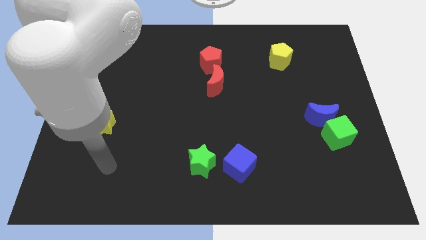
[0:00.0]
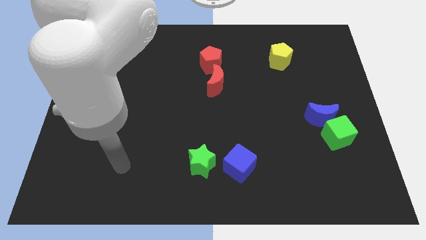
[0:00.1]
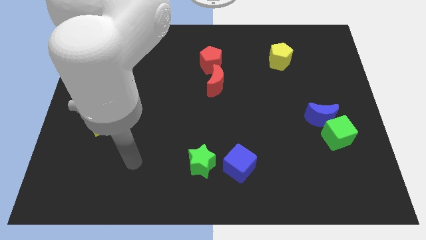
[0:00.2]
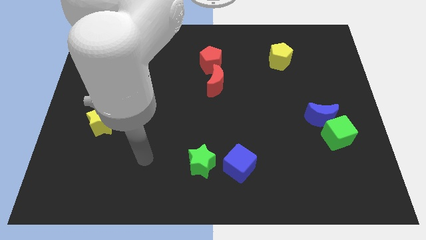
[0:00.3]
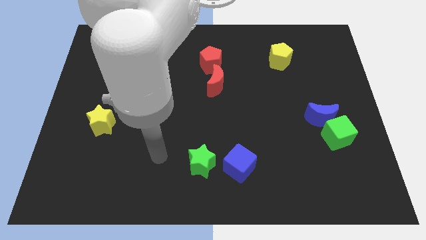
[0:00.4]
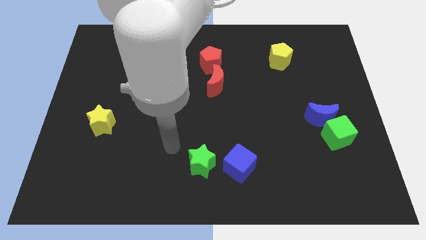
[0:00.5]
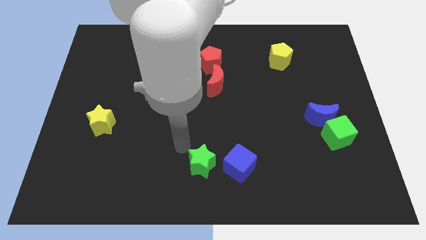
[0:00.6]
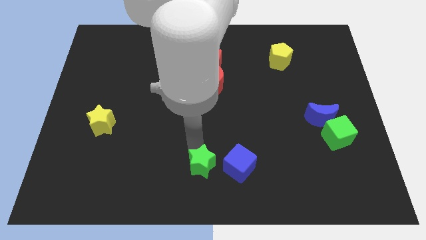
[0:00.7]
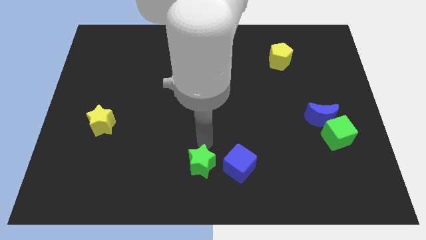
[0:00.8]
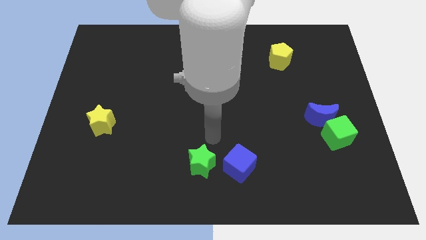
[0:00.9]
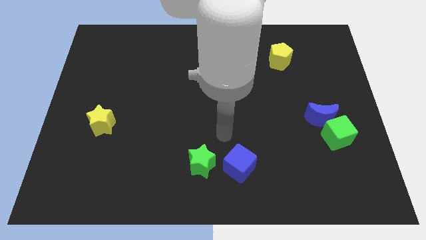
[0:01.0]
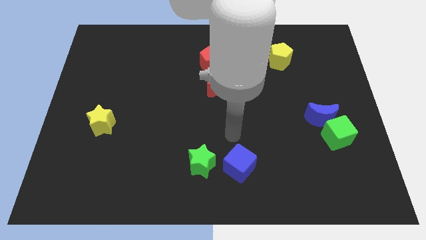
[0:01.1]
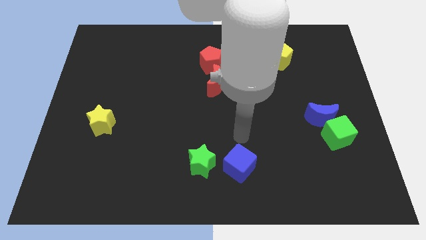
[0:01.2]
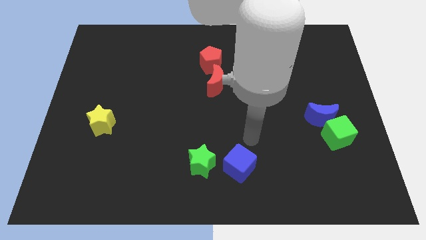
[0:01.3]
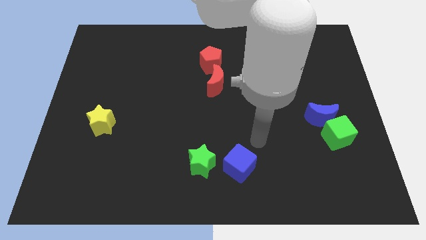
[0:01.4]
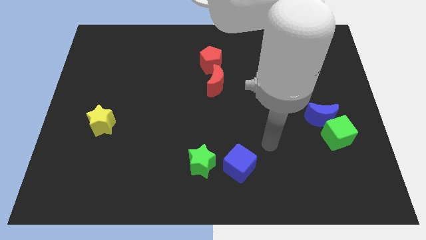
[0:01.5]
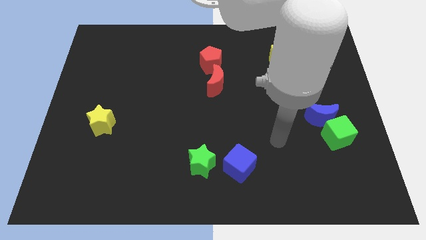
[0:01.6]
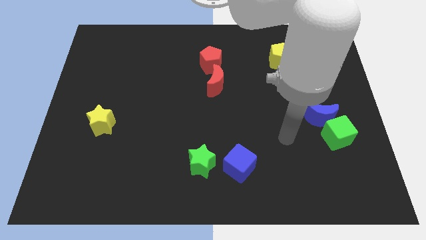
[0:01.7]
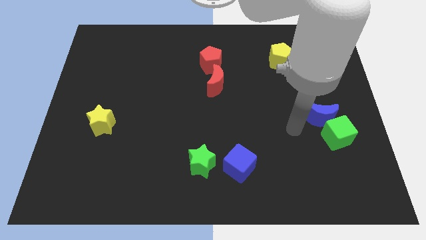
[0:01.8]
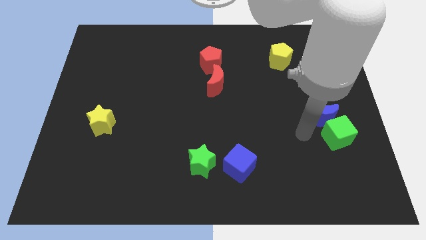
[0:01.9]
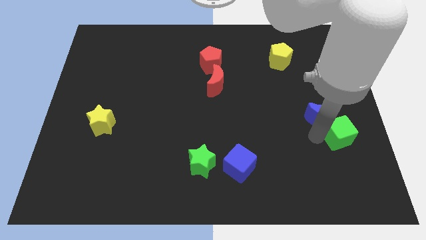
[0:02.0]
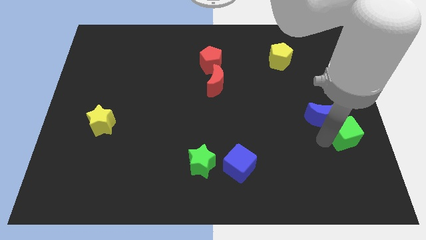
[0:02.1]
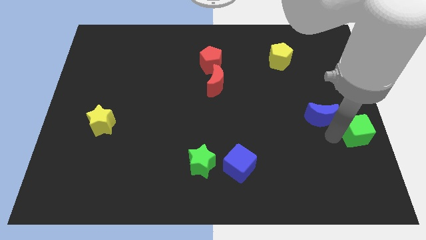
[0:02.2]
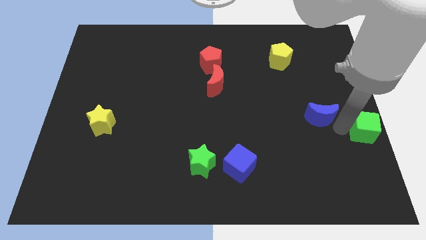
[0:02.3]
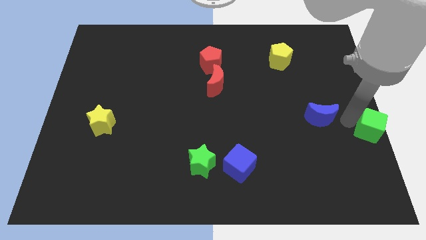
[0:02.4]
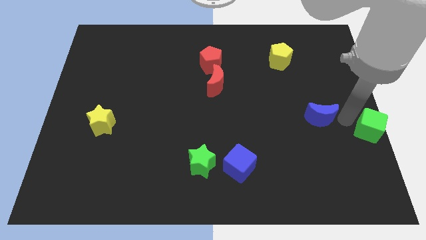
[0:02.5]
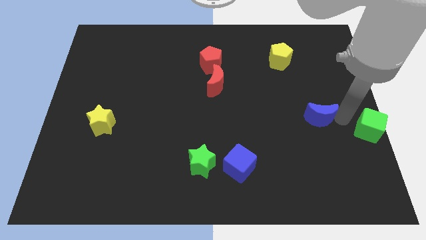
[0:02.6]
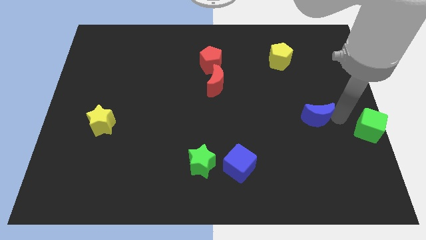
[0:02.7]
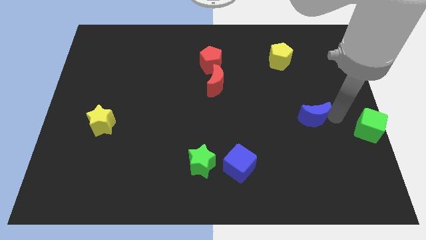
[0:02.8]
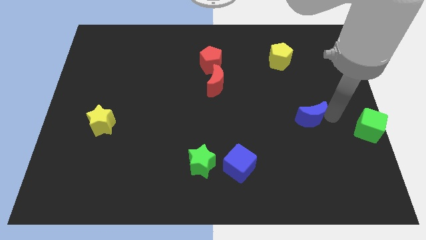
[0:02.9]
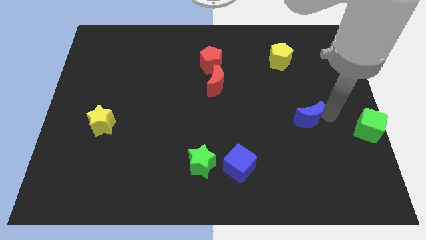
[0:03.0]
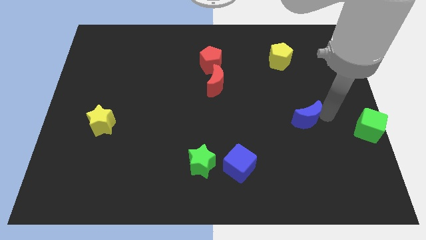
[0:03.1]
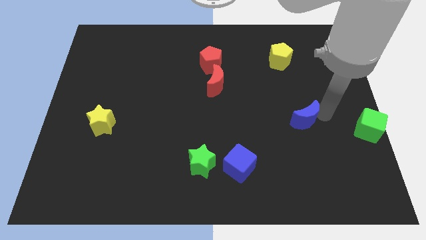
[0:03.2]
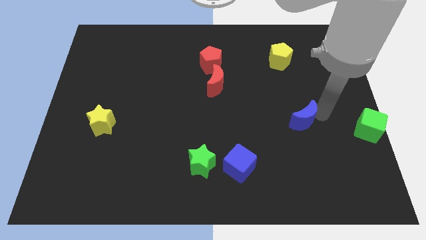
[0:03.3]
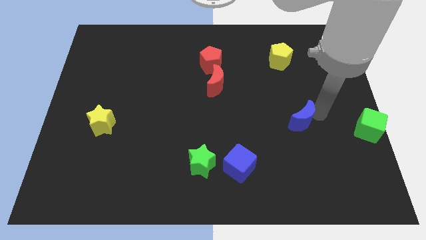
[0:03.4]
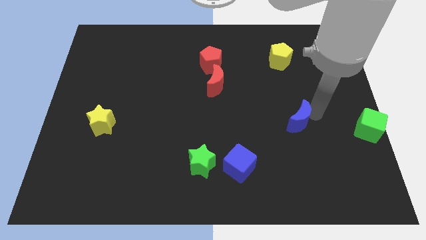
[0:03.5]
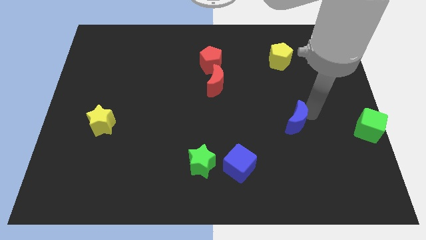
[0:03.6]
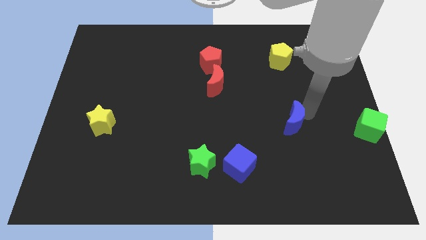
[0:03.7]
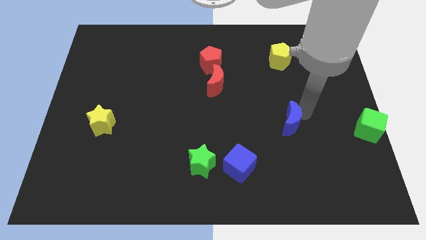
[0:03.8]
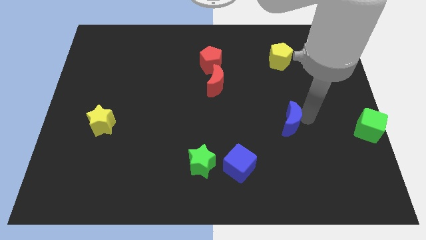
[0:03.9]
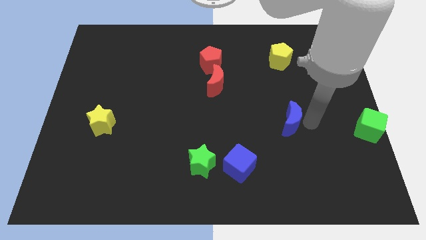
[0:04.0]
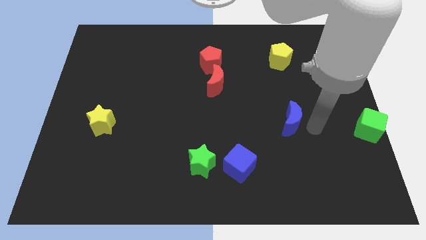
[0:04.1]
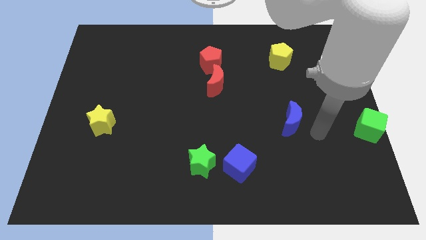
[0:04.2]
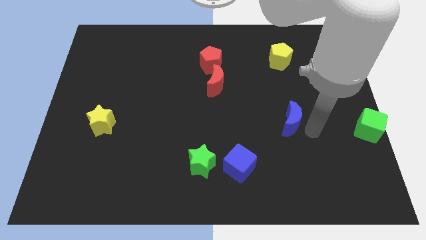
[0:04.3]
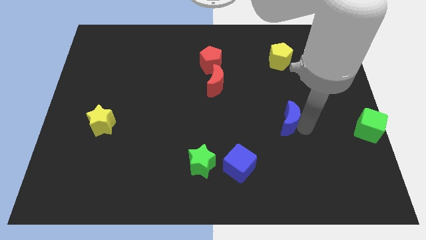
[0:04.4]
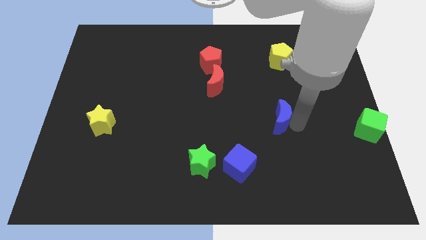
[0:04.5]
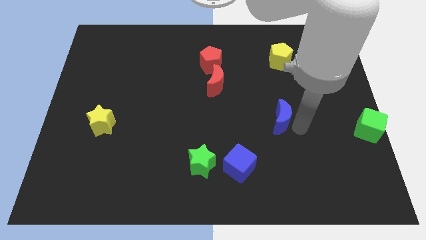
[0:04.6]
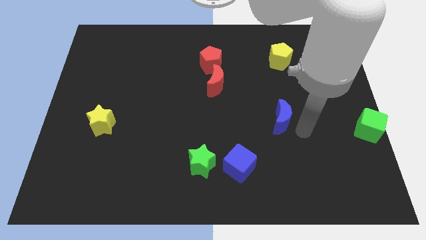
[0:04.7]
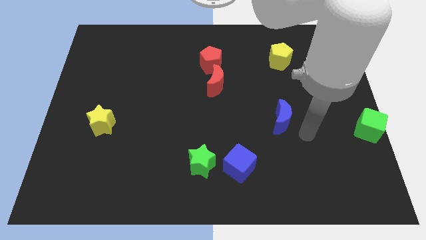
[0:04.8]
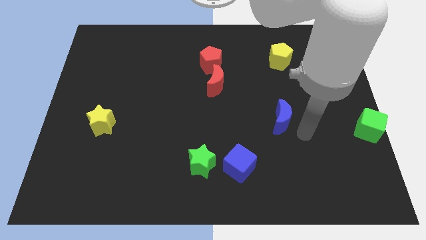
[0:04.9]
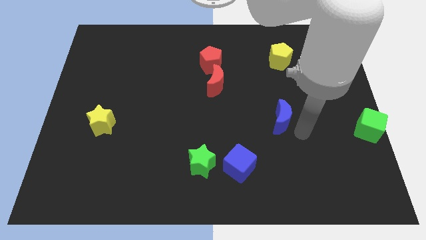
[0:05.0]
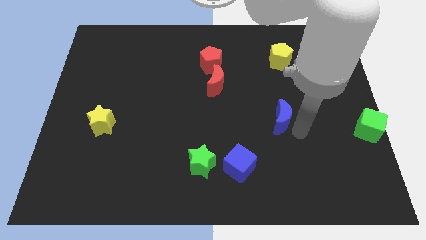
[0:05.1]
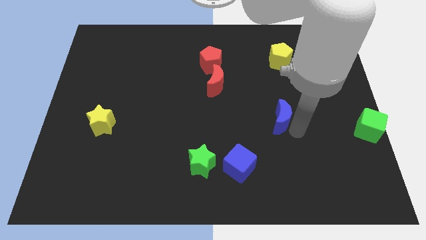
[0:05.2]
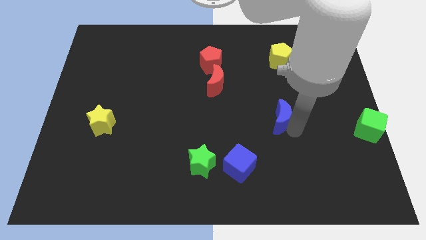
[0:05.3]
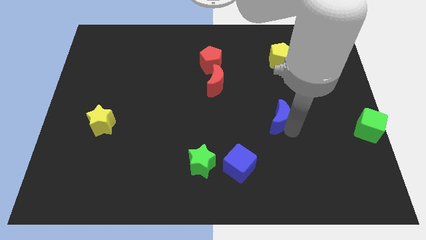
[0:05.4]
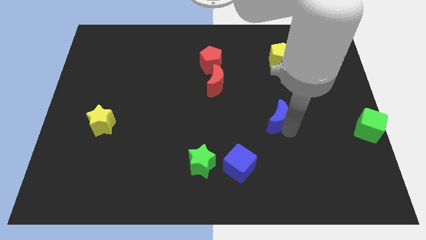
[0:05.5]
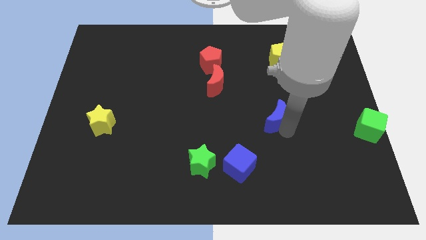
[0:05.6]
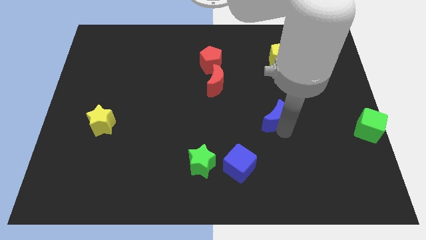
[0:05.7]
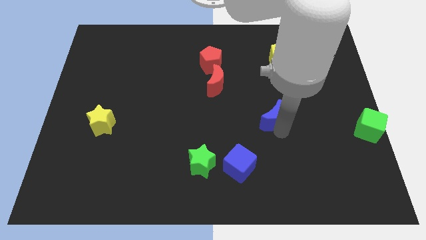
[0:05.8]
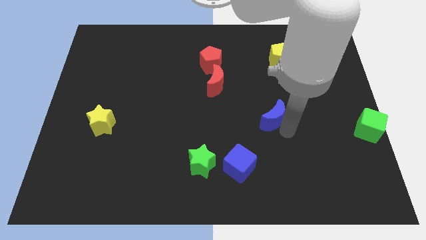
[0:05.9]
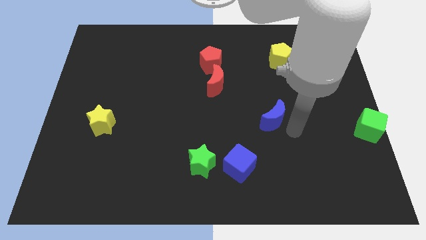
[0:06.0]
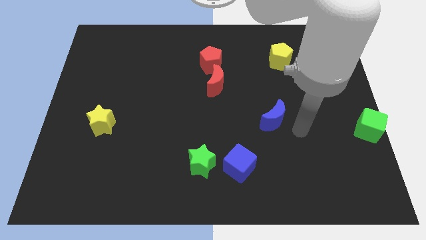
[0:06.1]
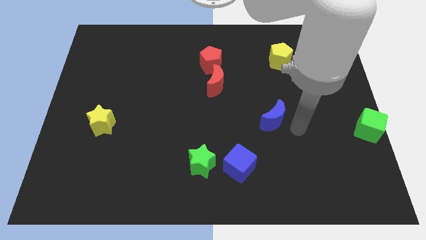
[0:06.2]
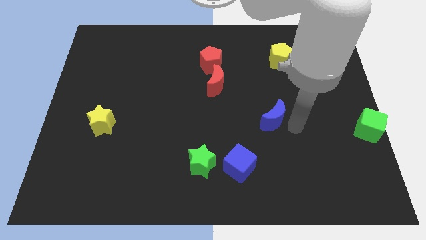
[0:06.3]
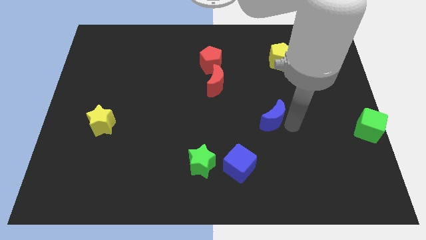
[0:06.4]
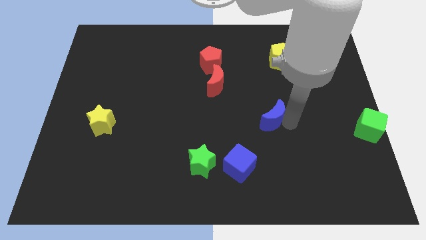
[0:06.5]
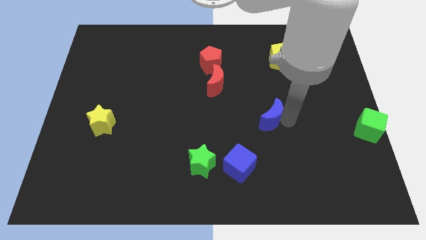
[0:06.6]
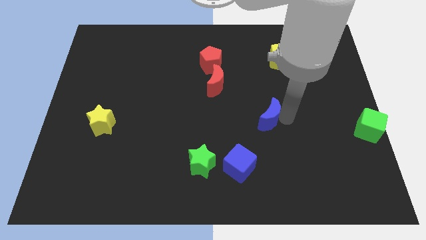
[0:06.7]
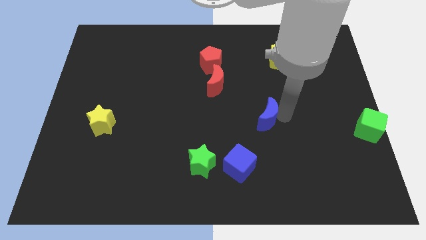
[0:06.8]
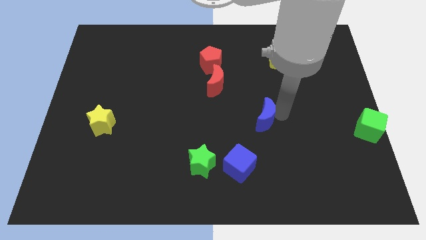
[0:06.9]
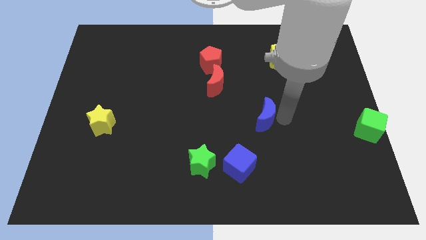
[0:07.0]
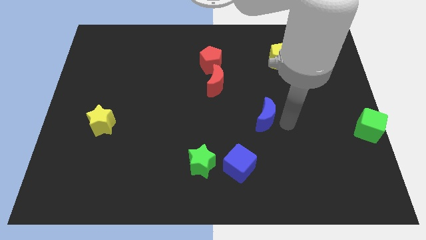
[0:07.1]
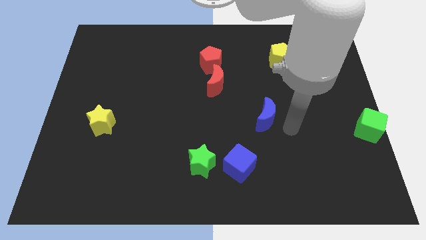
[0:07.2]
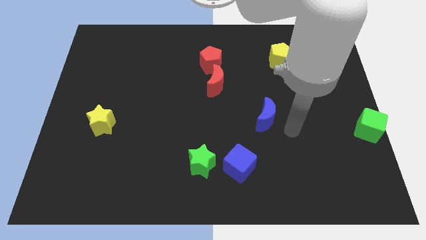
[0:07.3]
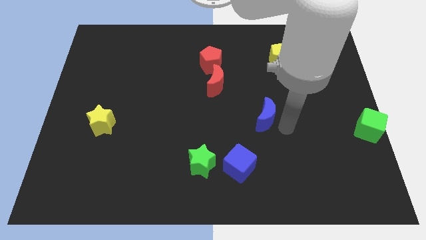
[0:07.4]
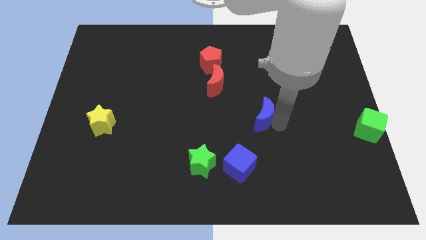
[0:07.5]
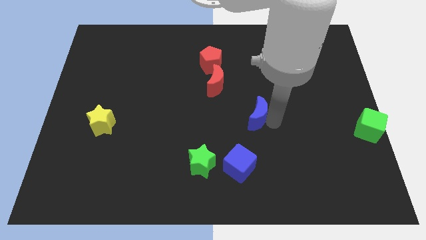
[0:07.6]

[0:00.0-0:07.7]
move the blue moon to the center of the board

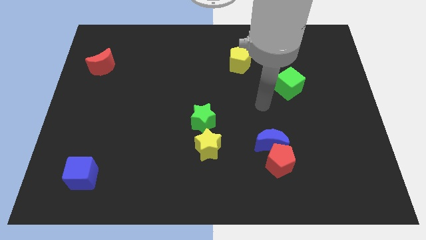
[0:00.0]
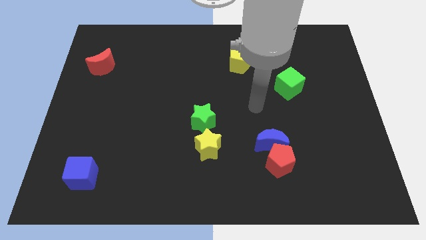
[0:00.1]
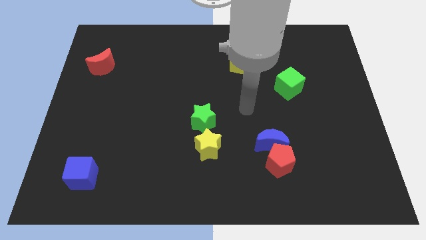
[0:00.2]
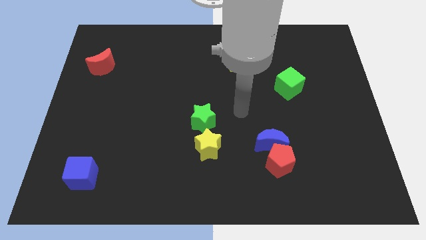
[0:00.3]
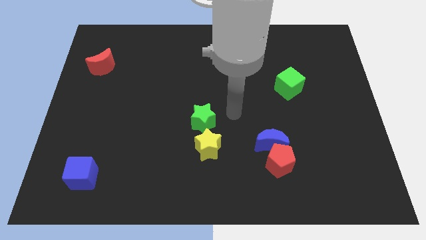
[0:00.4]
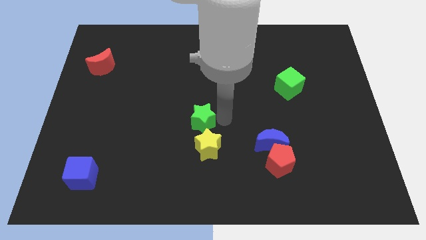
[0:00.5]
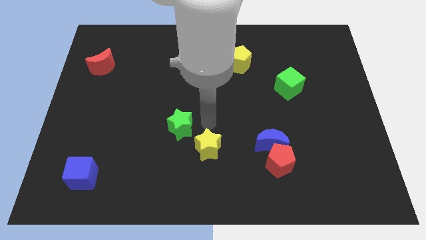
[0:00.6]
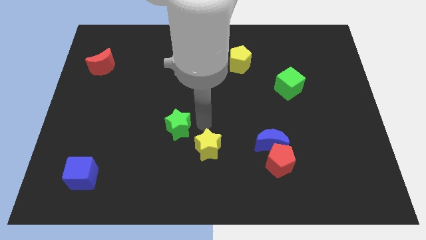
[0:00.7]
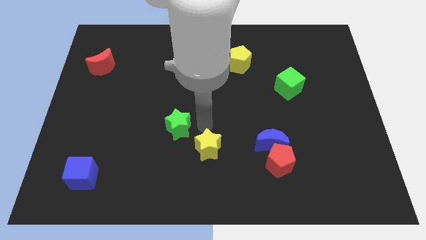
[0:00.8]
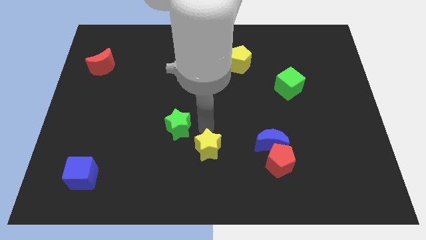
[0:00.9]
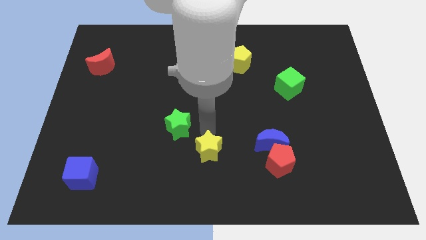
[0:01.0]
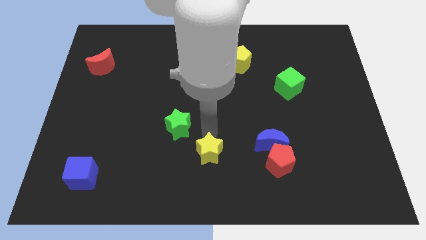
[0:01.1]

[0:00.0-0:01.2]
push the yellow star to the bottom side
